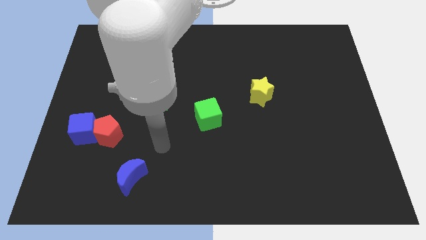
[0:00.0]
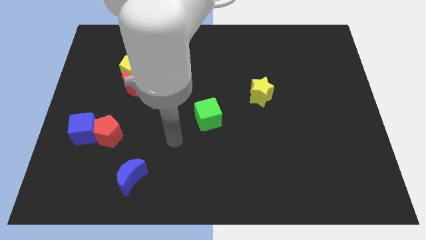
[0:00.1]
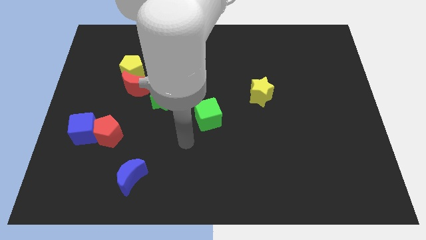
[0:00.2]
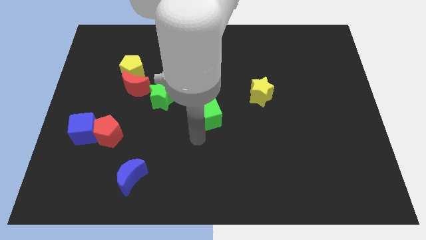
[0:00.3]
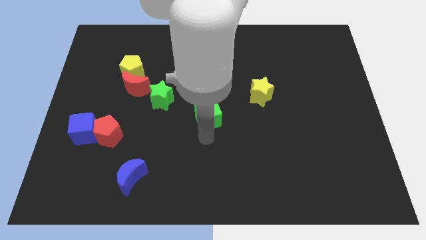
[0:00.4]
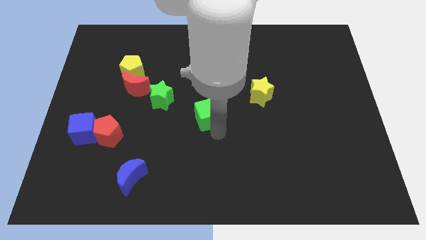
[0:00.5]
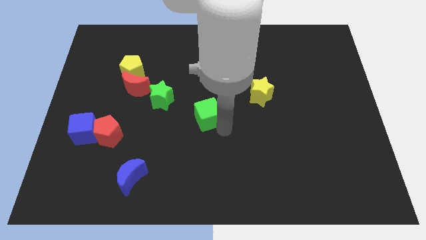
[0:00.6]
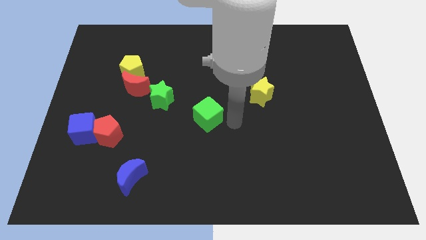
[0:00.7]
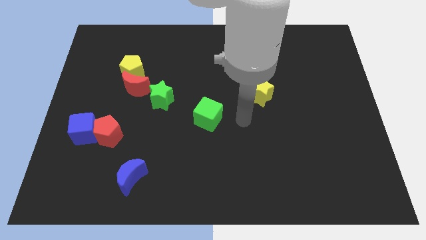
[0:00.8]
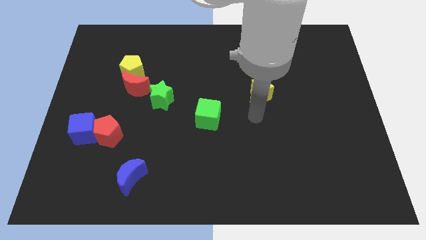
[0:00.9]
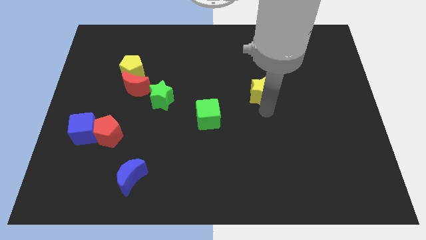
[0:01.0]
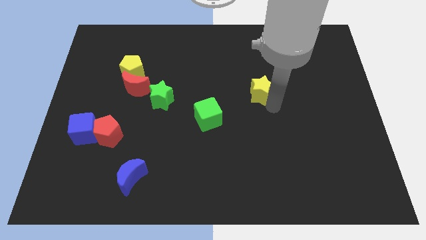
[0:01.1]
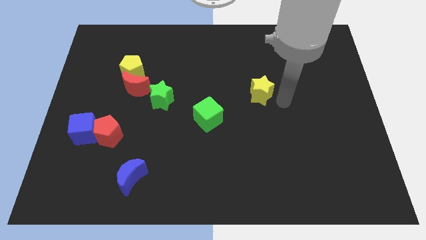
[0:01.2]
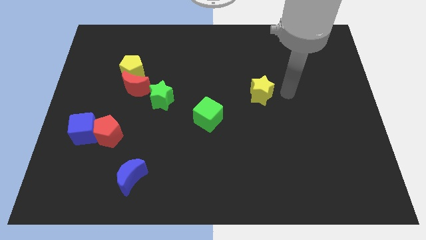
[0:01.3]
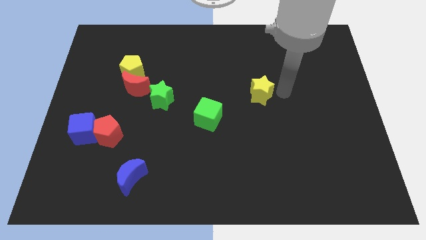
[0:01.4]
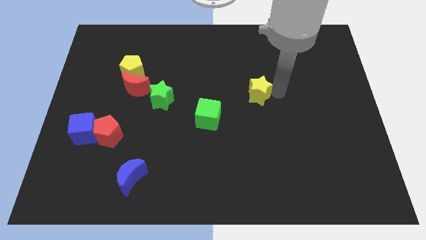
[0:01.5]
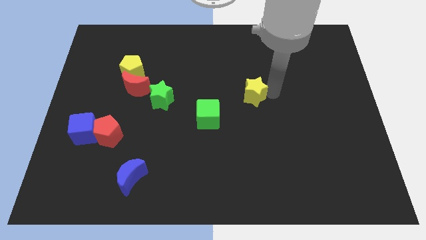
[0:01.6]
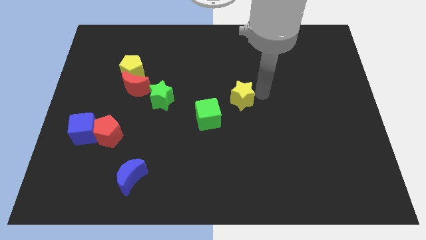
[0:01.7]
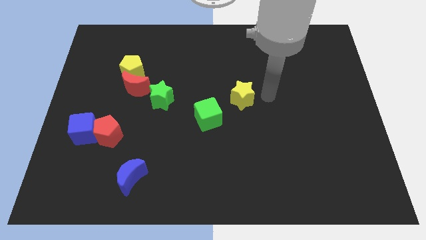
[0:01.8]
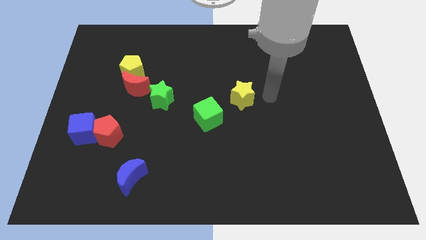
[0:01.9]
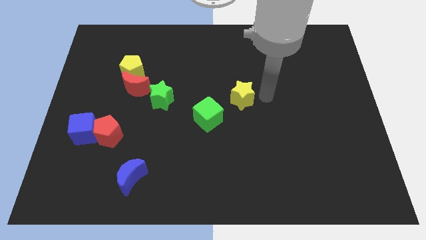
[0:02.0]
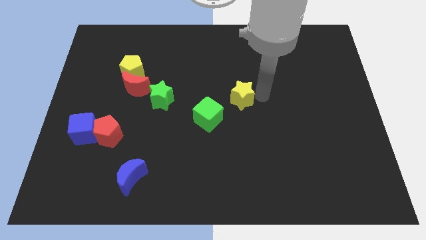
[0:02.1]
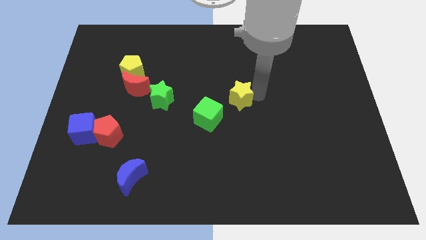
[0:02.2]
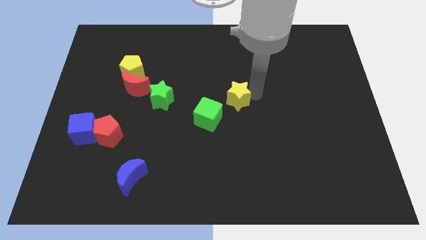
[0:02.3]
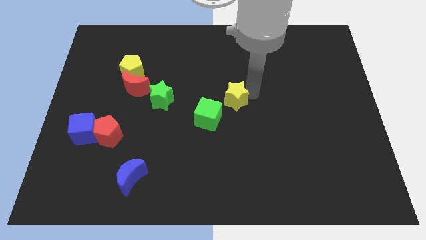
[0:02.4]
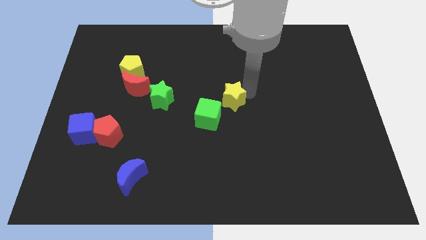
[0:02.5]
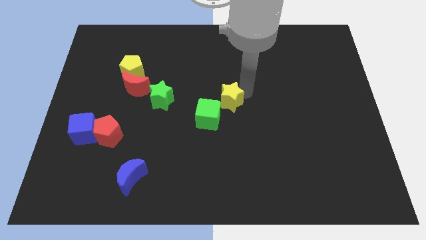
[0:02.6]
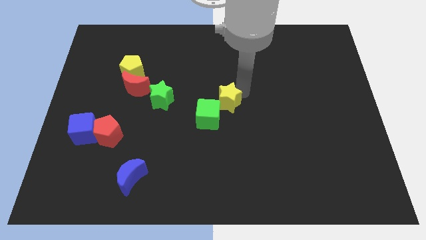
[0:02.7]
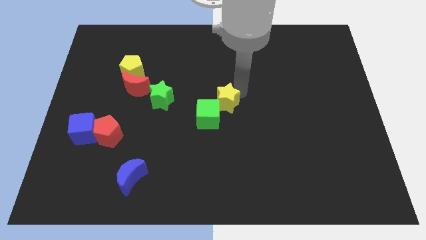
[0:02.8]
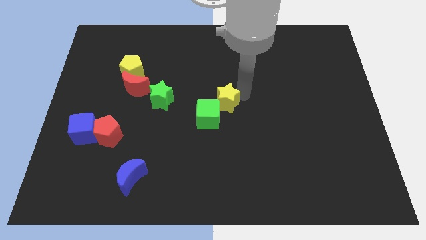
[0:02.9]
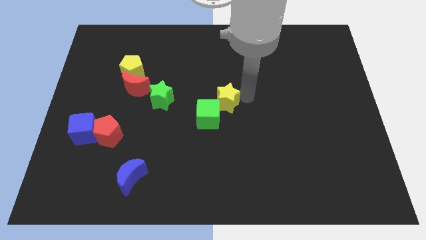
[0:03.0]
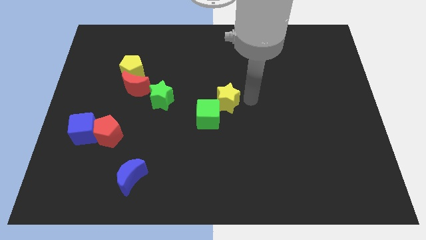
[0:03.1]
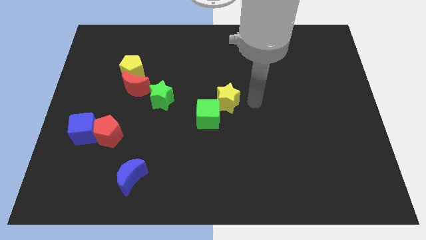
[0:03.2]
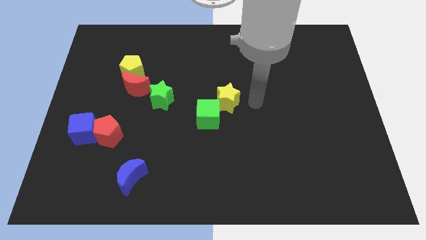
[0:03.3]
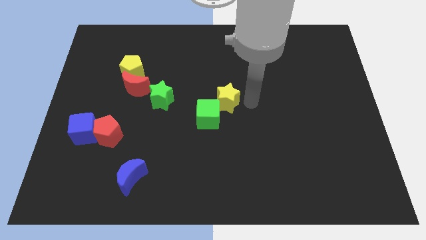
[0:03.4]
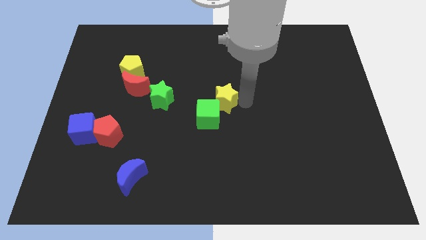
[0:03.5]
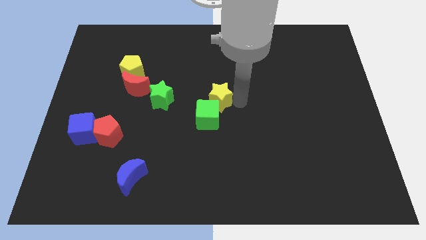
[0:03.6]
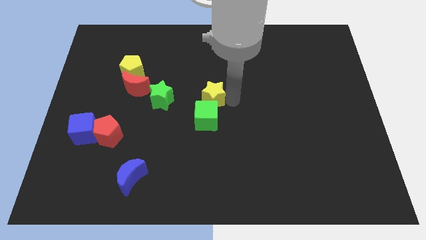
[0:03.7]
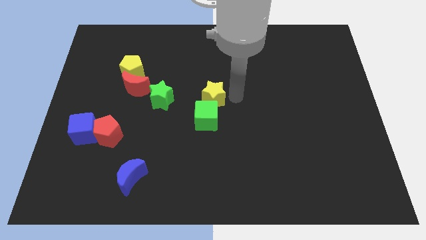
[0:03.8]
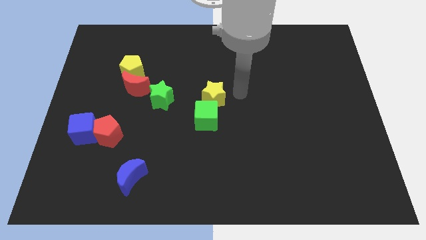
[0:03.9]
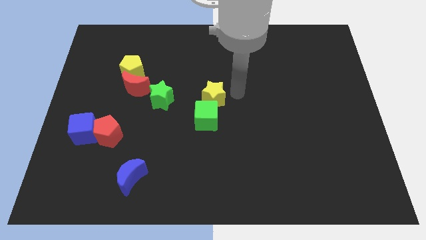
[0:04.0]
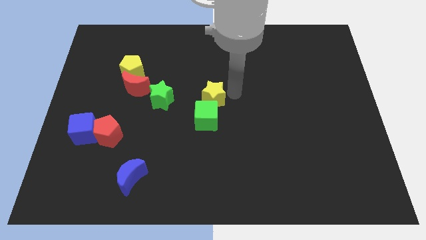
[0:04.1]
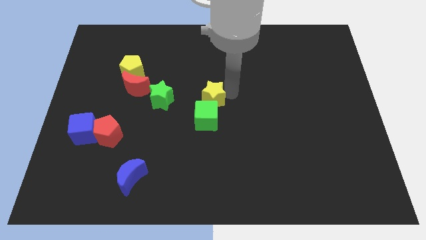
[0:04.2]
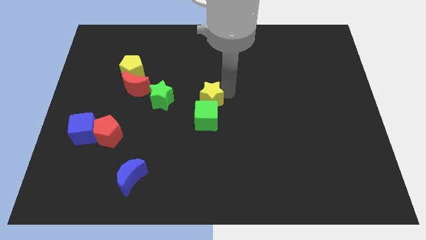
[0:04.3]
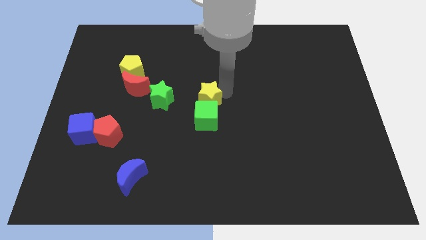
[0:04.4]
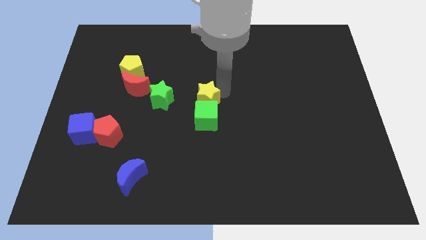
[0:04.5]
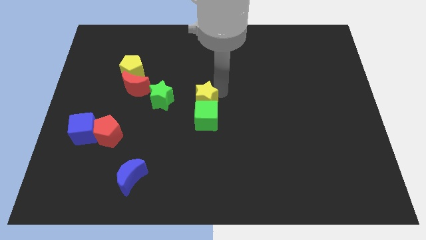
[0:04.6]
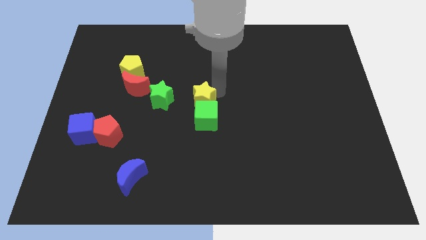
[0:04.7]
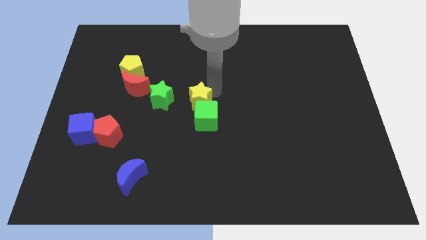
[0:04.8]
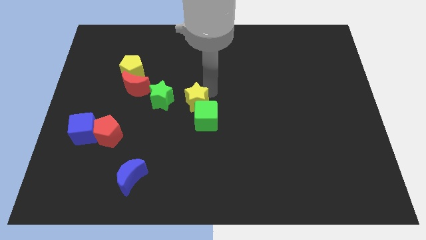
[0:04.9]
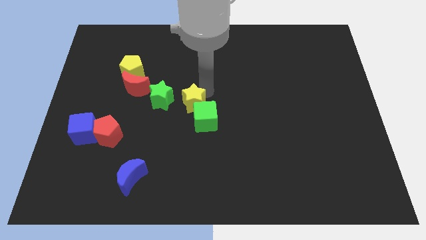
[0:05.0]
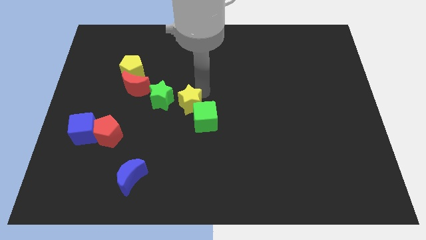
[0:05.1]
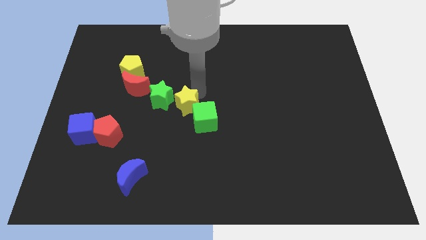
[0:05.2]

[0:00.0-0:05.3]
slide the yellow star to the left side of the green cube

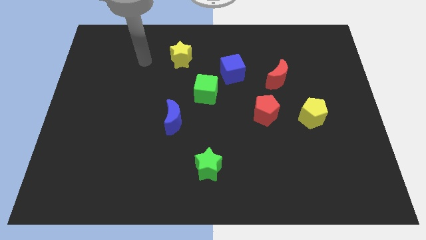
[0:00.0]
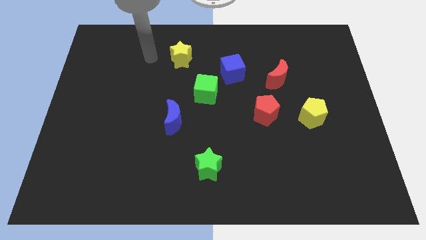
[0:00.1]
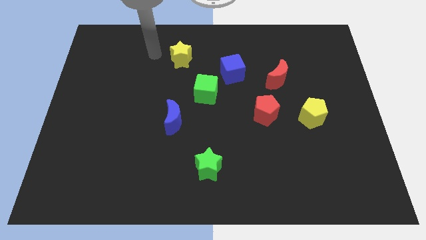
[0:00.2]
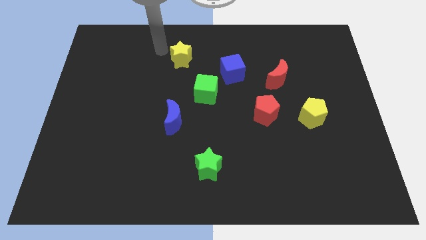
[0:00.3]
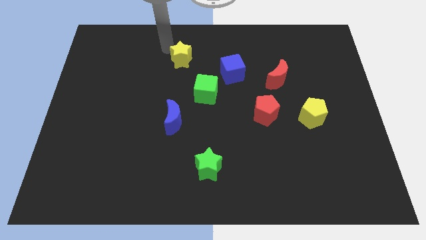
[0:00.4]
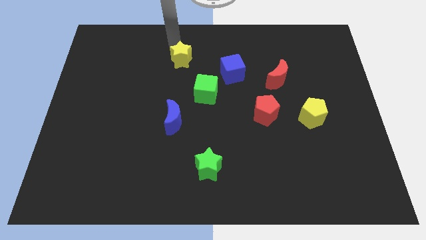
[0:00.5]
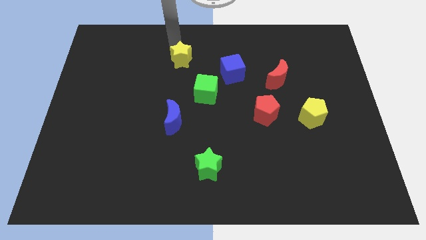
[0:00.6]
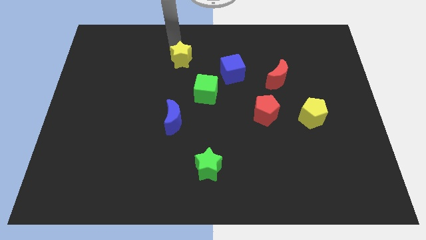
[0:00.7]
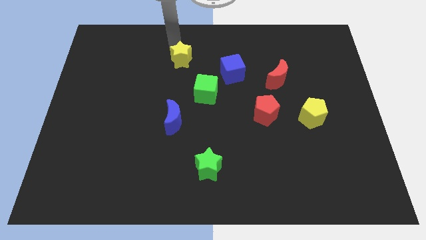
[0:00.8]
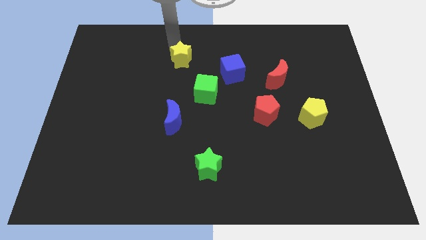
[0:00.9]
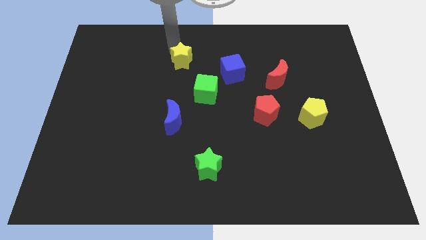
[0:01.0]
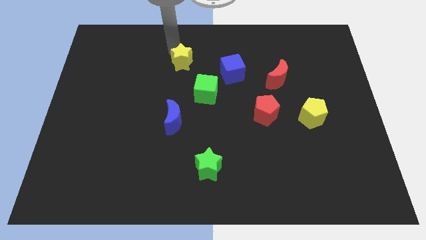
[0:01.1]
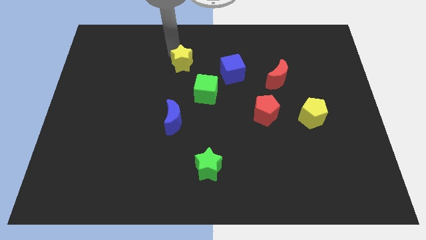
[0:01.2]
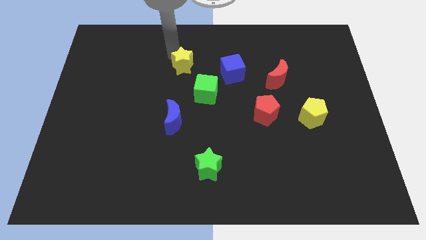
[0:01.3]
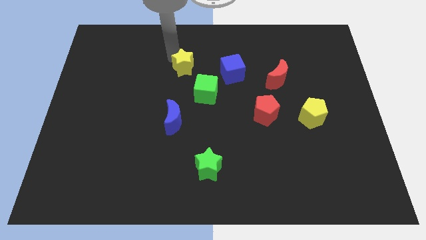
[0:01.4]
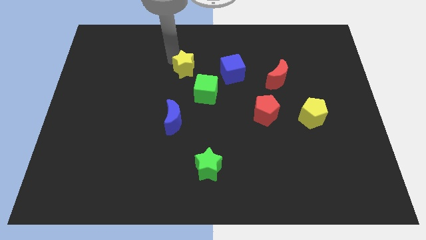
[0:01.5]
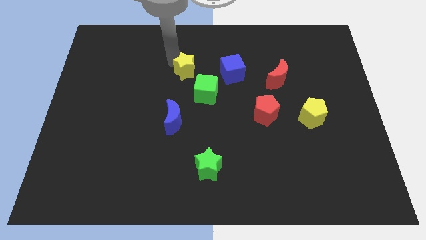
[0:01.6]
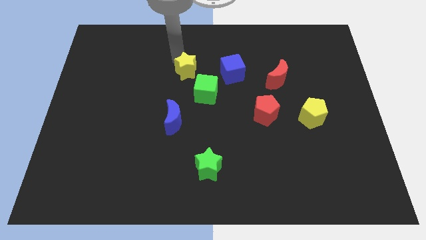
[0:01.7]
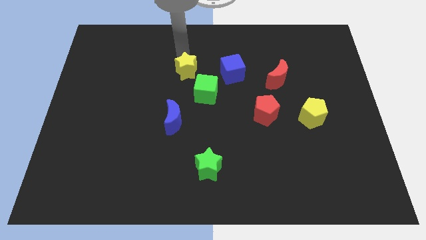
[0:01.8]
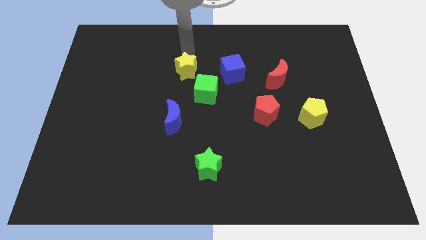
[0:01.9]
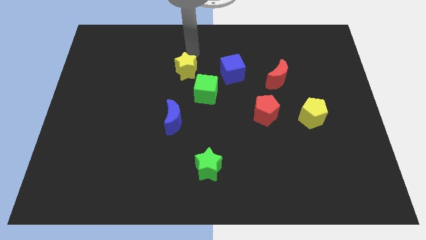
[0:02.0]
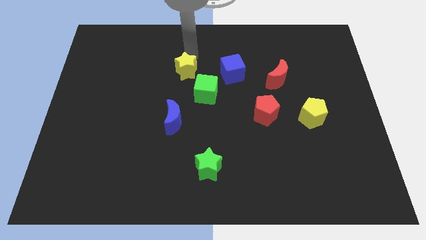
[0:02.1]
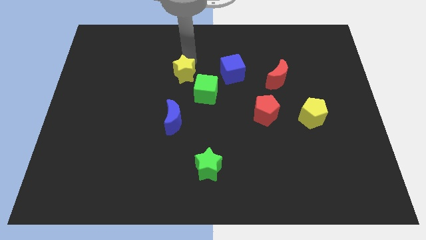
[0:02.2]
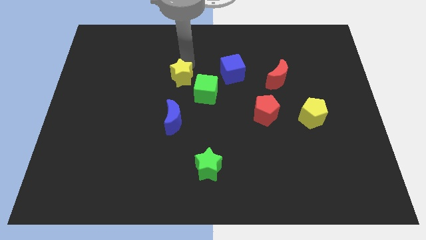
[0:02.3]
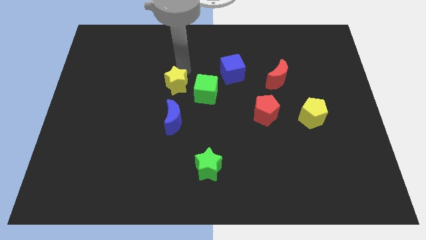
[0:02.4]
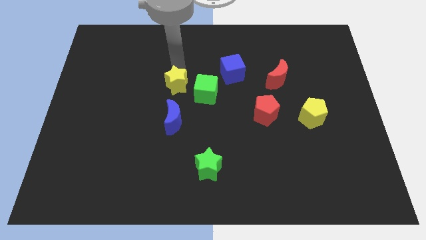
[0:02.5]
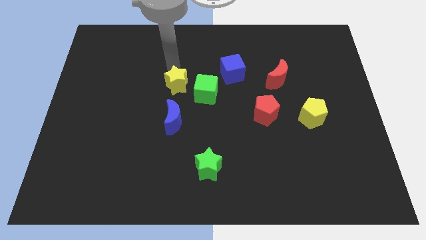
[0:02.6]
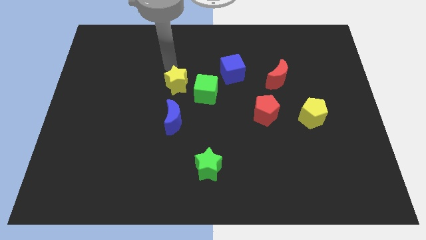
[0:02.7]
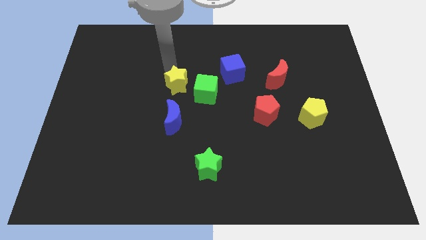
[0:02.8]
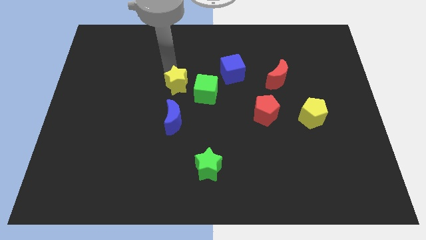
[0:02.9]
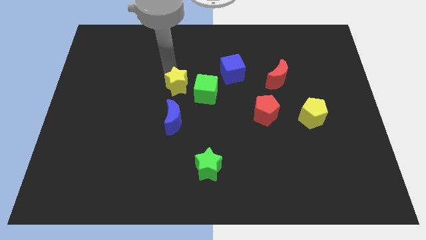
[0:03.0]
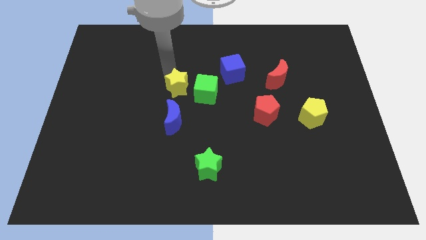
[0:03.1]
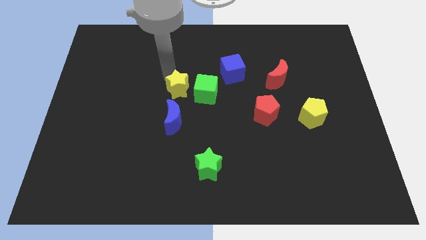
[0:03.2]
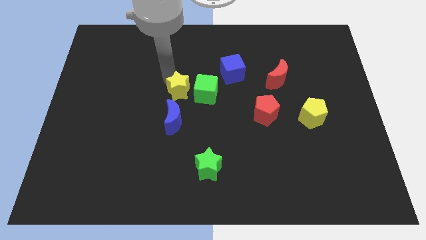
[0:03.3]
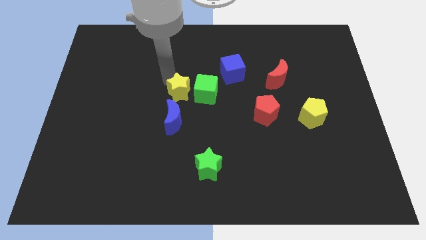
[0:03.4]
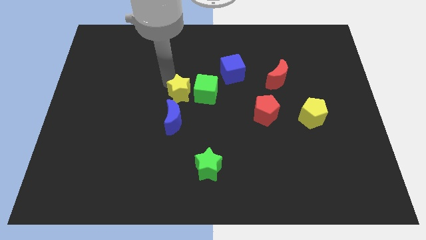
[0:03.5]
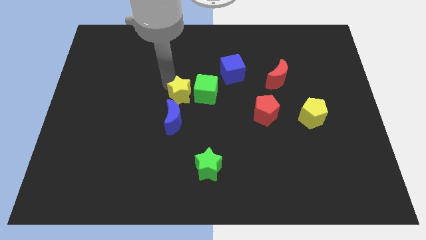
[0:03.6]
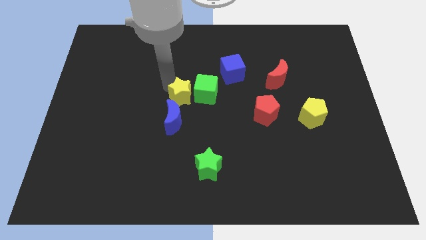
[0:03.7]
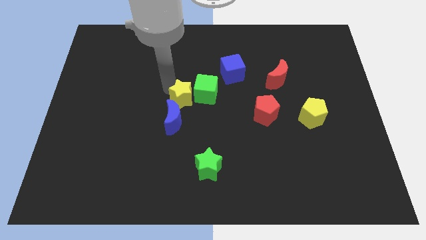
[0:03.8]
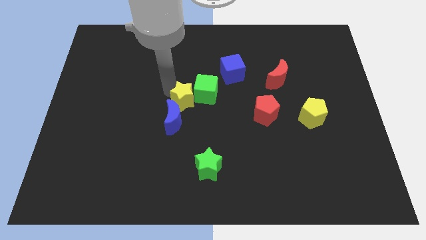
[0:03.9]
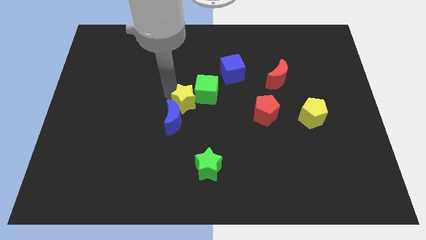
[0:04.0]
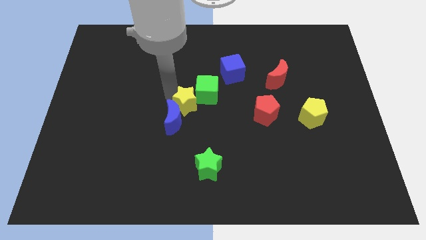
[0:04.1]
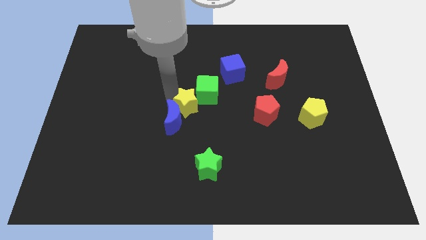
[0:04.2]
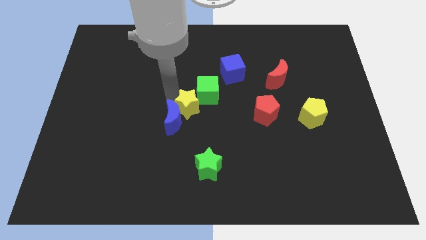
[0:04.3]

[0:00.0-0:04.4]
put the yellow star to the right side of the blue moon
